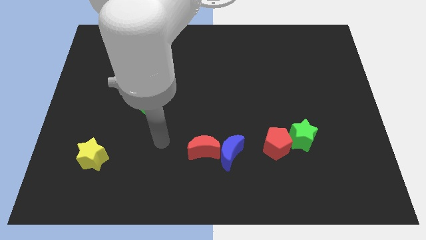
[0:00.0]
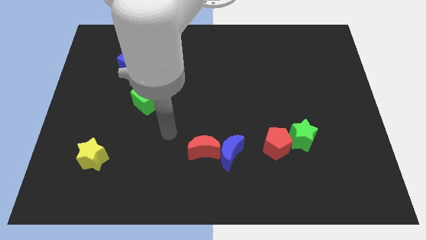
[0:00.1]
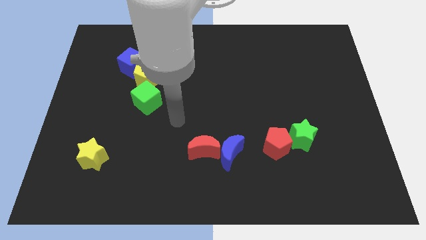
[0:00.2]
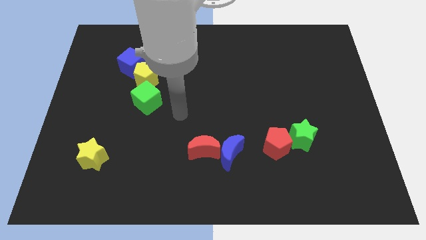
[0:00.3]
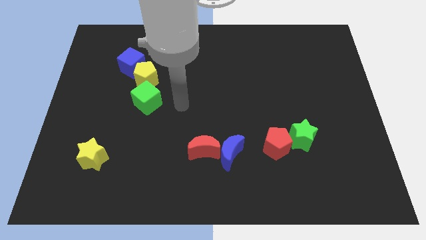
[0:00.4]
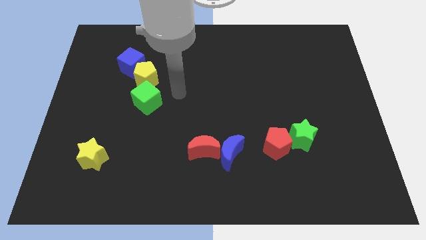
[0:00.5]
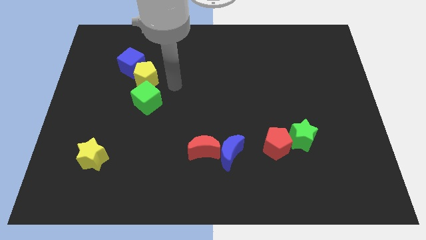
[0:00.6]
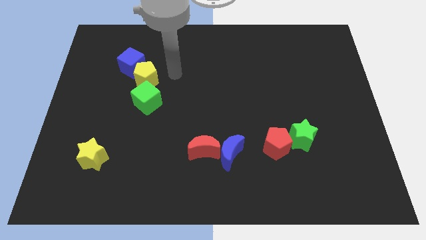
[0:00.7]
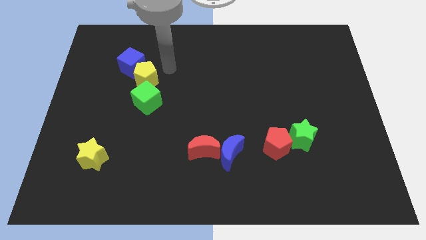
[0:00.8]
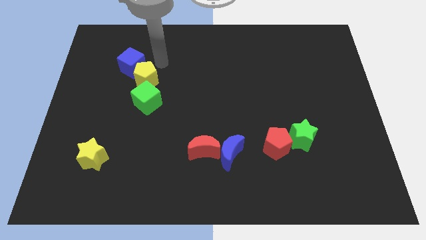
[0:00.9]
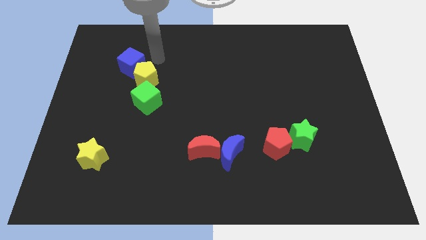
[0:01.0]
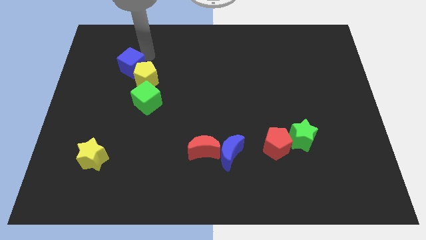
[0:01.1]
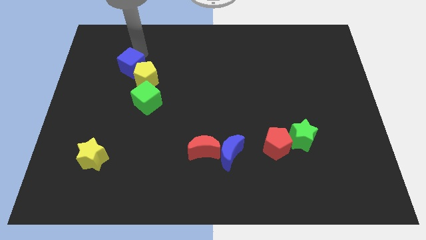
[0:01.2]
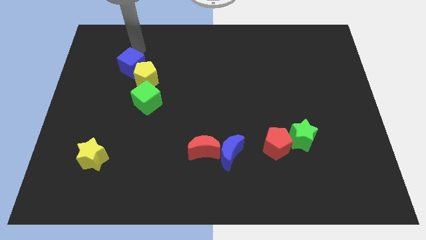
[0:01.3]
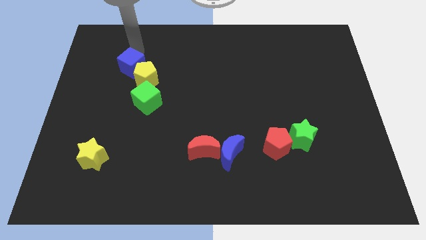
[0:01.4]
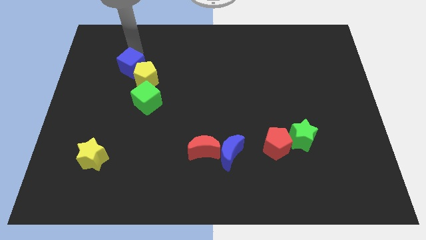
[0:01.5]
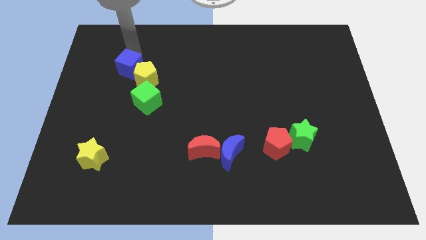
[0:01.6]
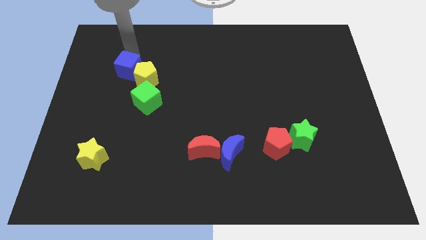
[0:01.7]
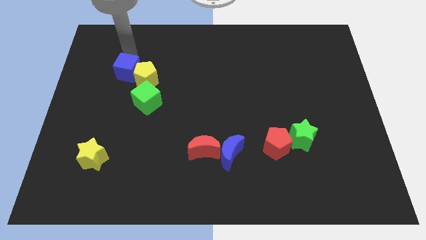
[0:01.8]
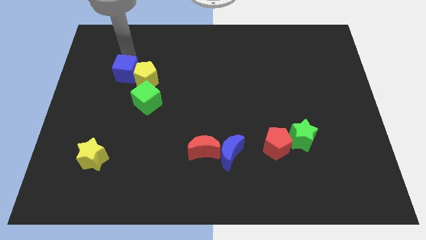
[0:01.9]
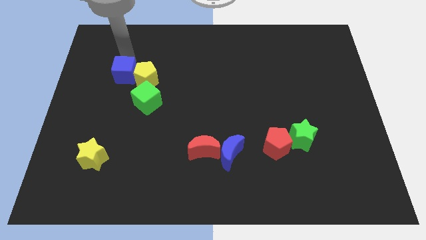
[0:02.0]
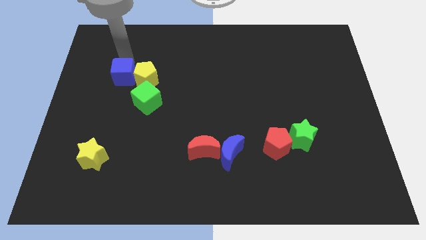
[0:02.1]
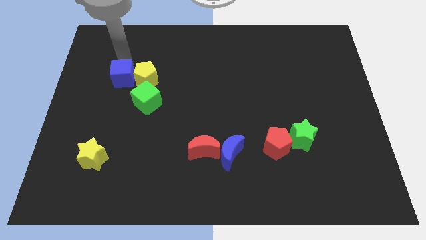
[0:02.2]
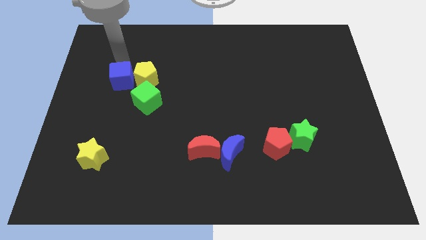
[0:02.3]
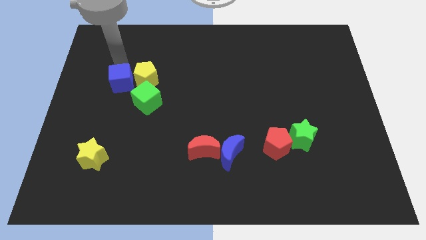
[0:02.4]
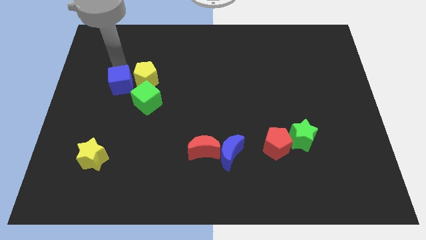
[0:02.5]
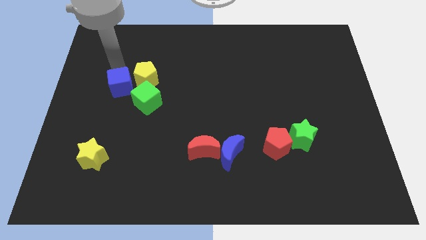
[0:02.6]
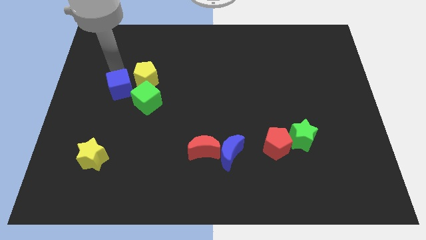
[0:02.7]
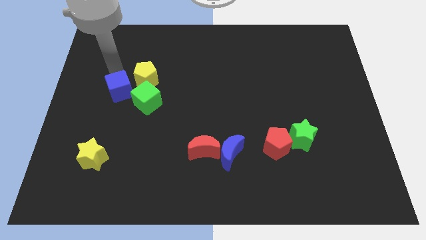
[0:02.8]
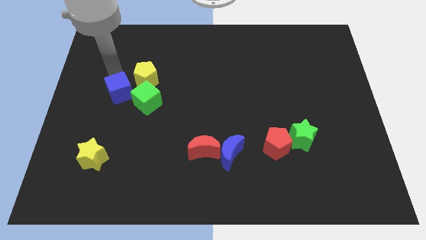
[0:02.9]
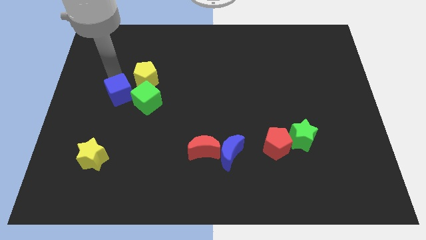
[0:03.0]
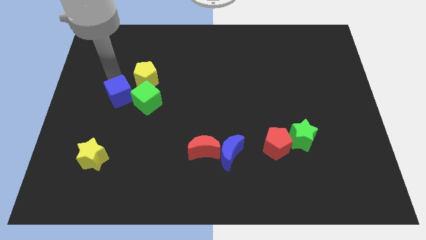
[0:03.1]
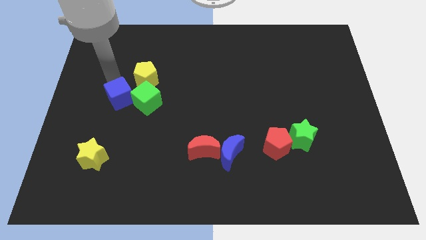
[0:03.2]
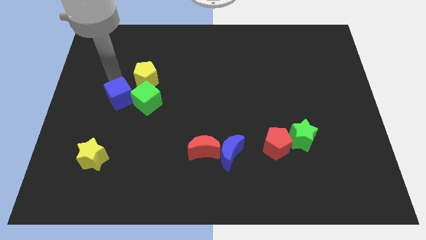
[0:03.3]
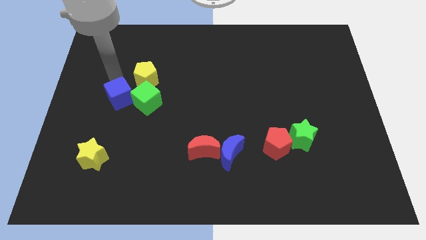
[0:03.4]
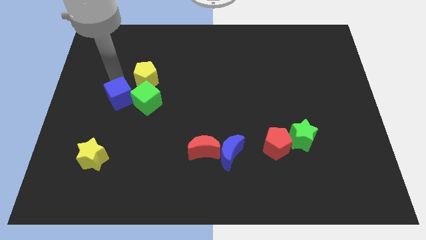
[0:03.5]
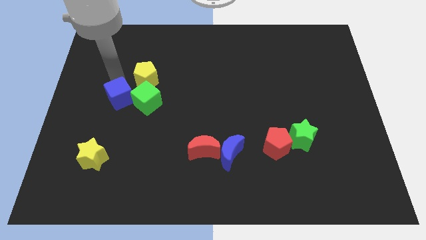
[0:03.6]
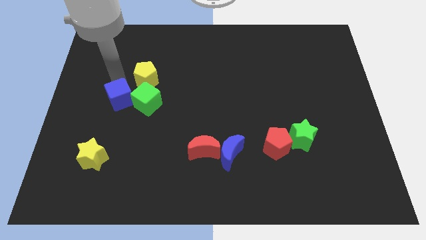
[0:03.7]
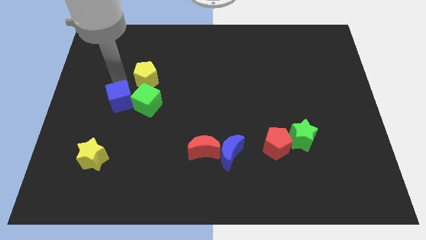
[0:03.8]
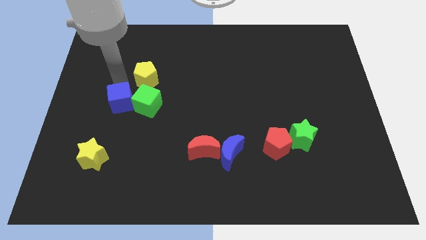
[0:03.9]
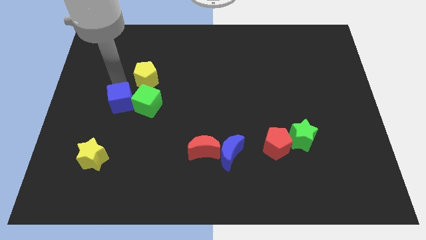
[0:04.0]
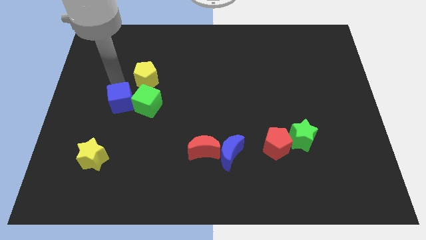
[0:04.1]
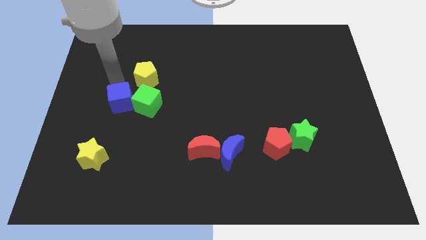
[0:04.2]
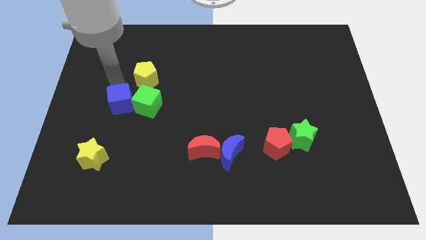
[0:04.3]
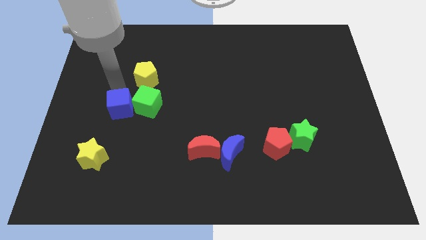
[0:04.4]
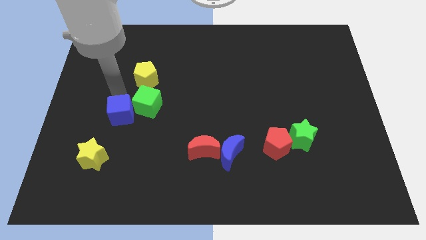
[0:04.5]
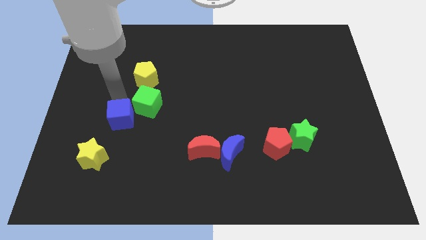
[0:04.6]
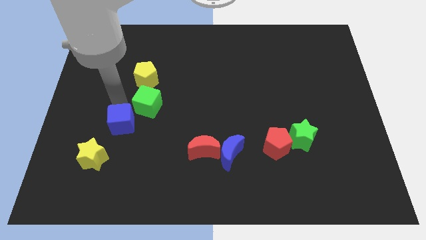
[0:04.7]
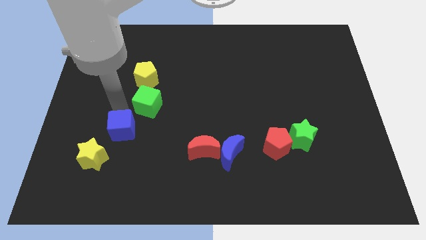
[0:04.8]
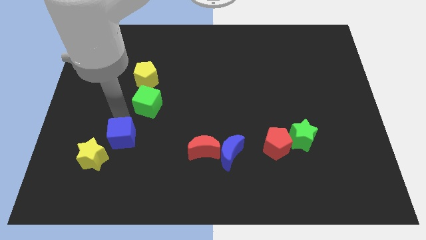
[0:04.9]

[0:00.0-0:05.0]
push the blue cube downwards

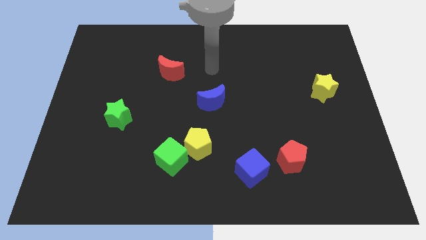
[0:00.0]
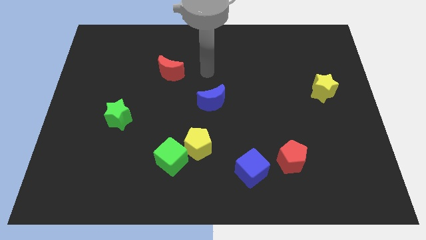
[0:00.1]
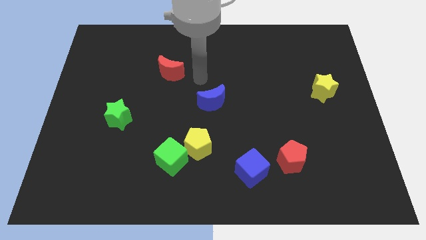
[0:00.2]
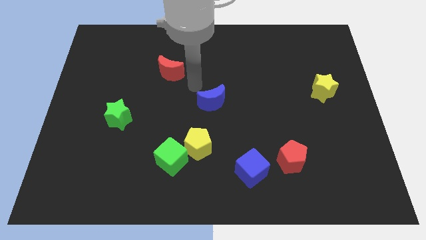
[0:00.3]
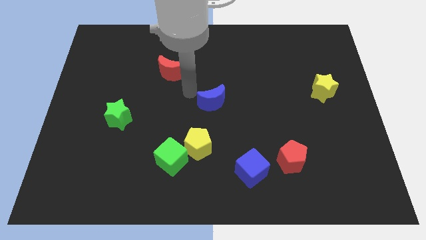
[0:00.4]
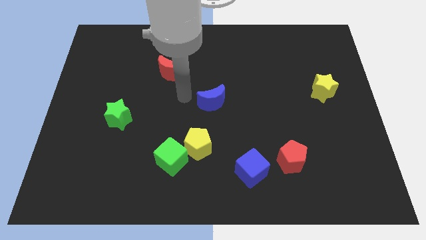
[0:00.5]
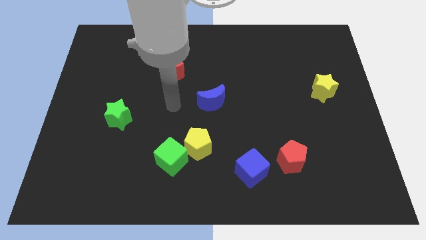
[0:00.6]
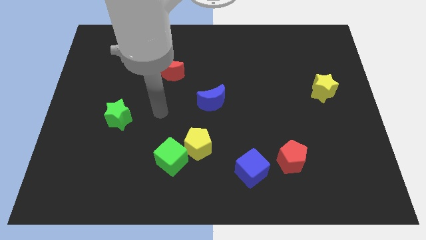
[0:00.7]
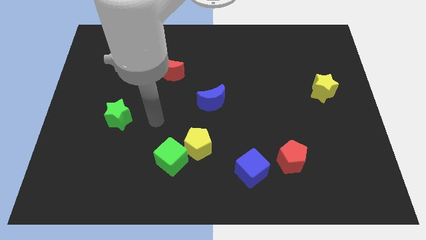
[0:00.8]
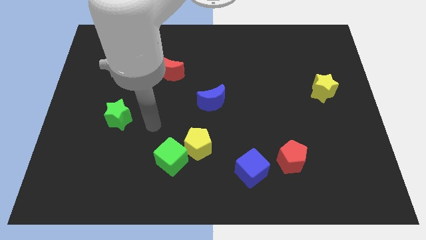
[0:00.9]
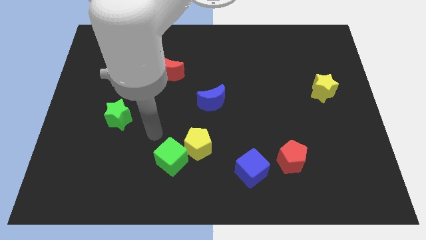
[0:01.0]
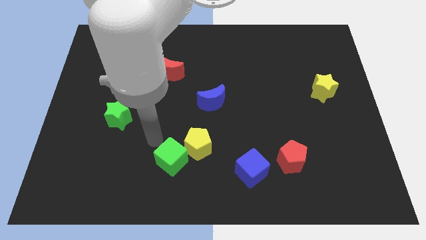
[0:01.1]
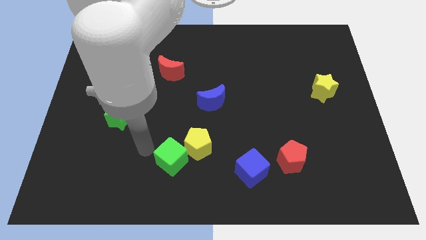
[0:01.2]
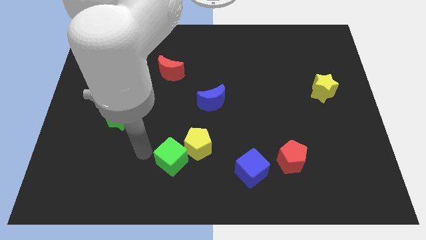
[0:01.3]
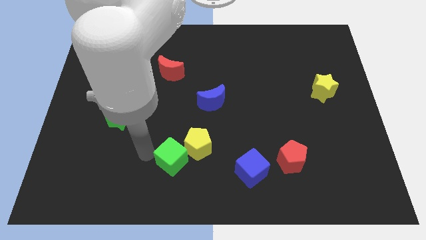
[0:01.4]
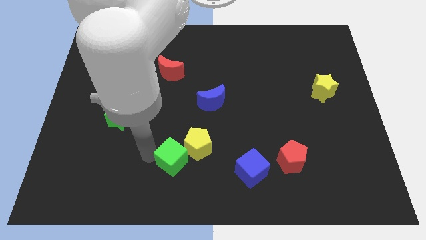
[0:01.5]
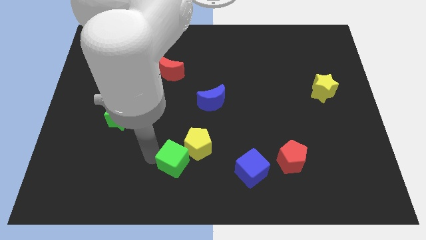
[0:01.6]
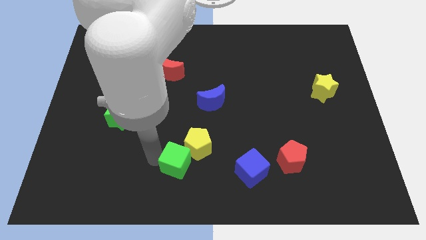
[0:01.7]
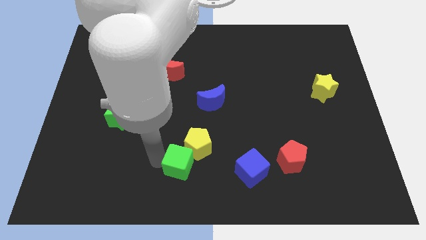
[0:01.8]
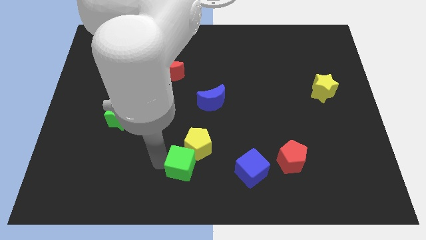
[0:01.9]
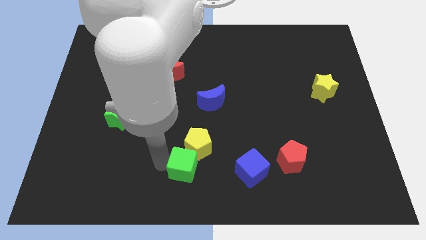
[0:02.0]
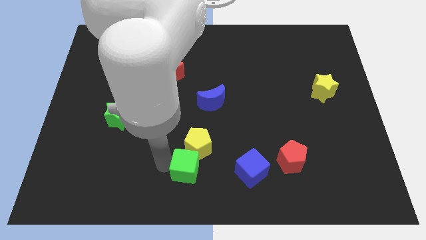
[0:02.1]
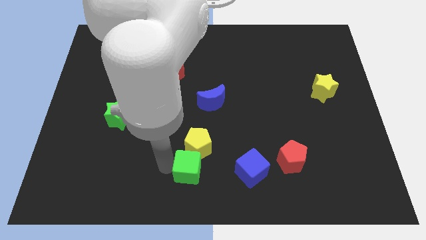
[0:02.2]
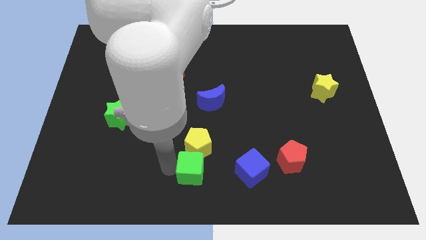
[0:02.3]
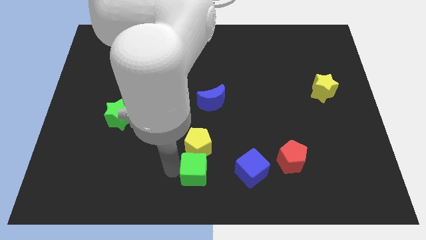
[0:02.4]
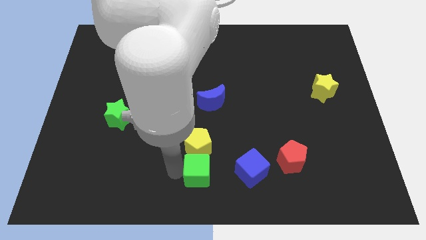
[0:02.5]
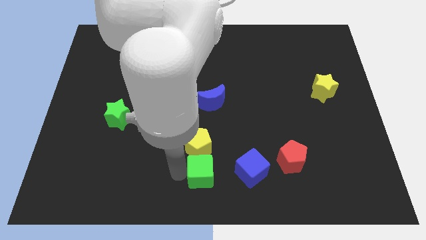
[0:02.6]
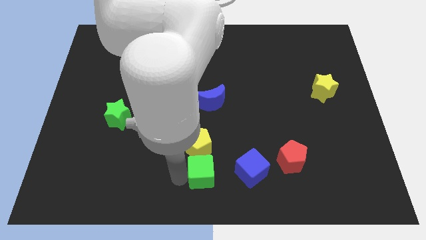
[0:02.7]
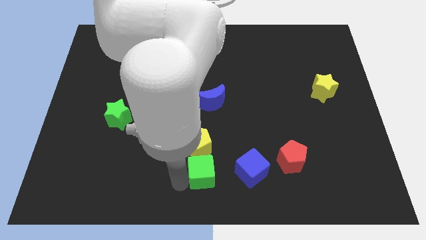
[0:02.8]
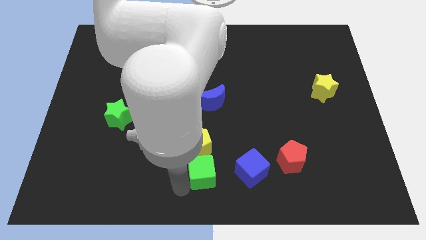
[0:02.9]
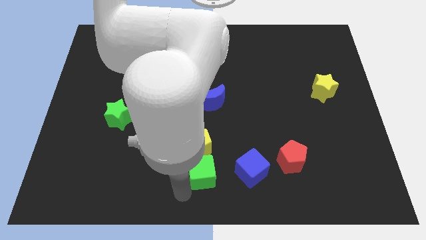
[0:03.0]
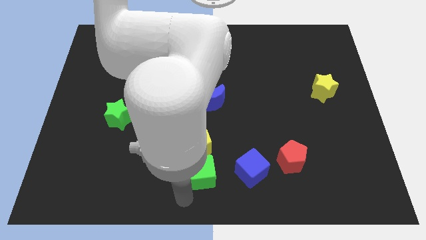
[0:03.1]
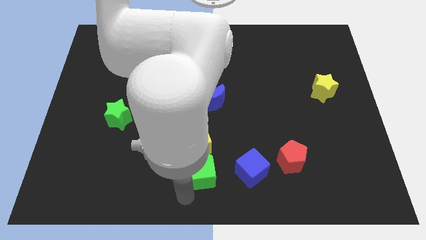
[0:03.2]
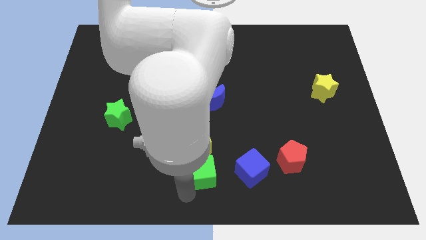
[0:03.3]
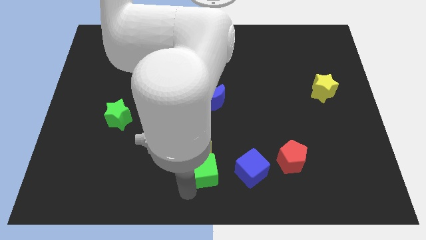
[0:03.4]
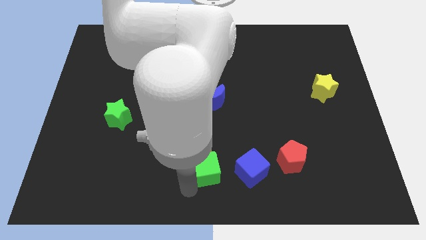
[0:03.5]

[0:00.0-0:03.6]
push the green cube to the right slightly
